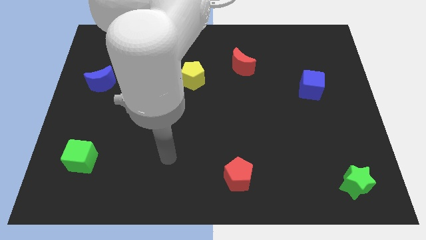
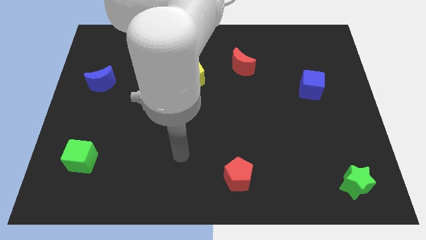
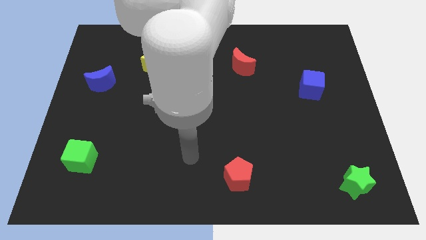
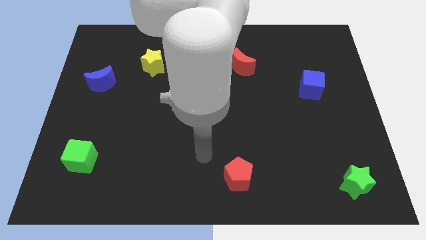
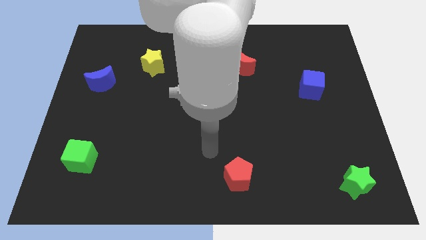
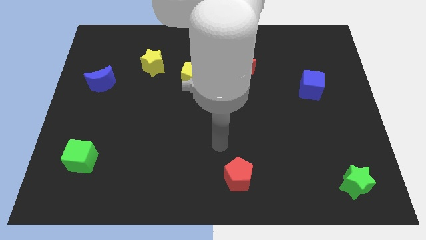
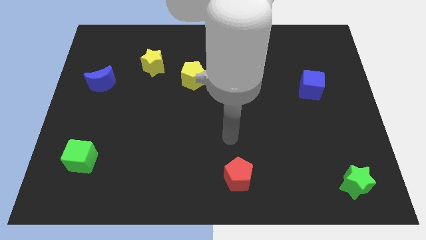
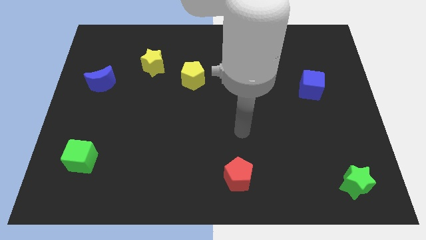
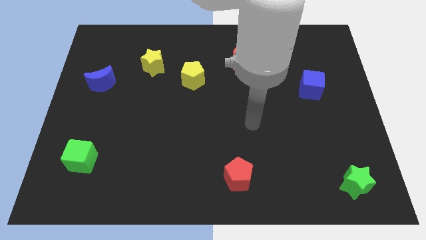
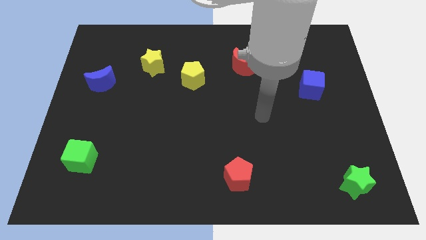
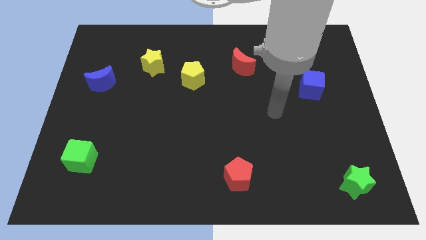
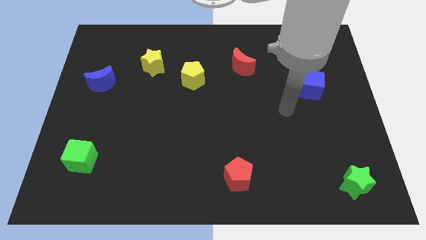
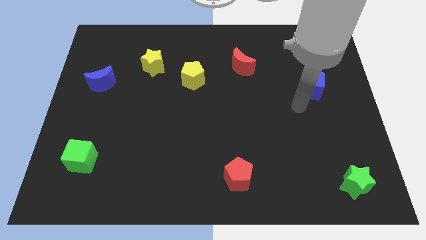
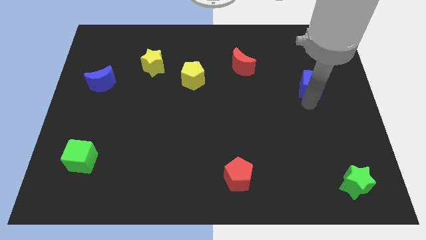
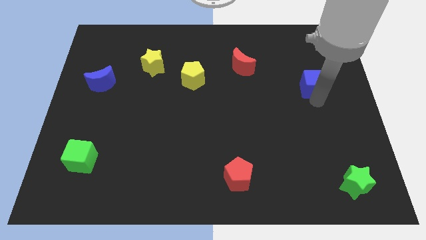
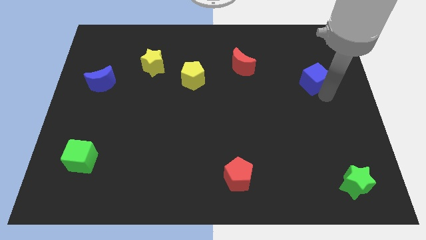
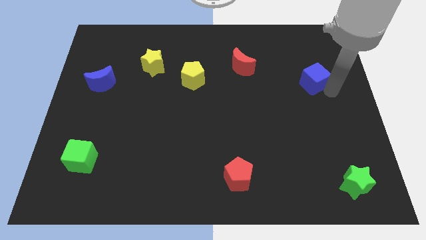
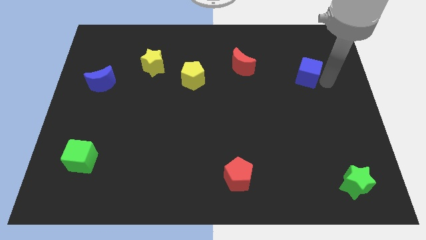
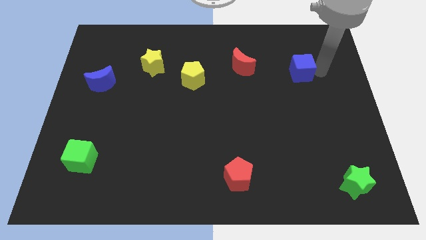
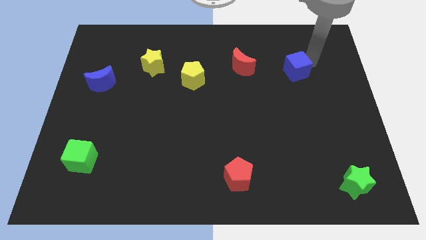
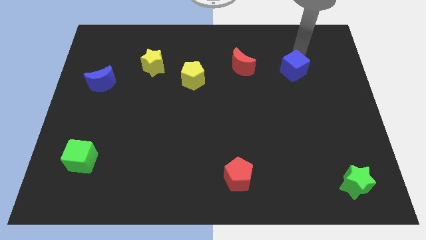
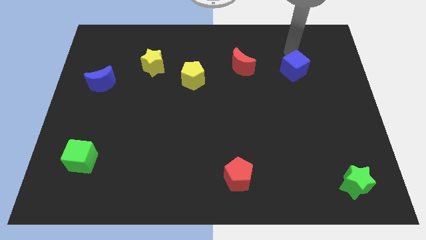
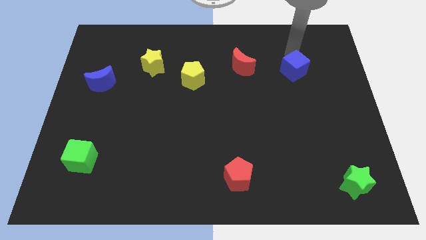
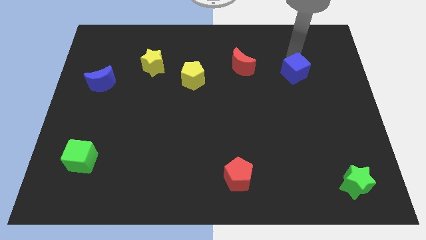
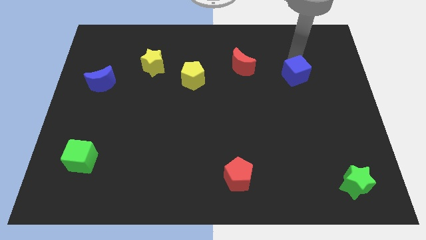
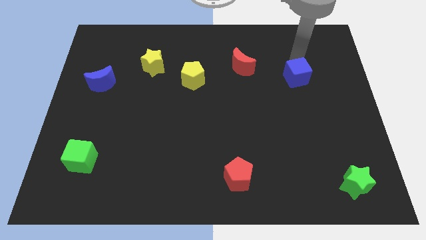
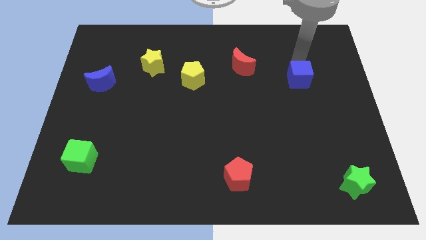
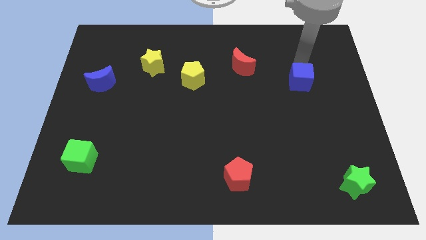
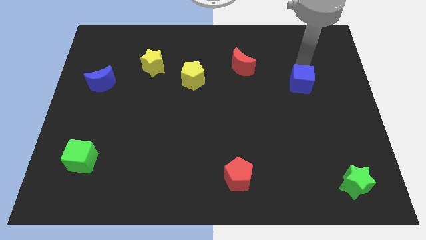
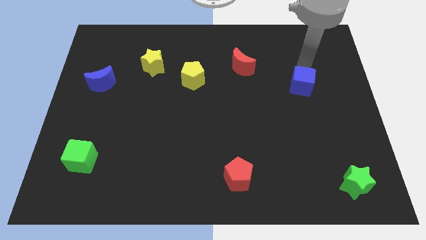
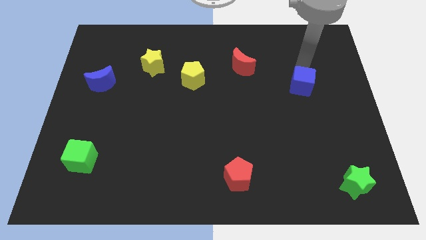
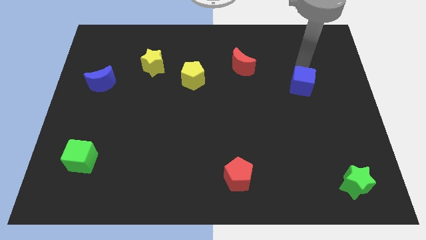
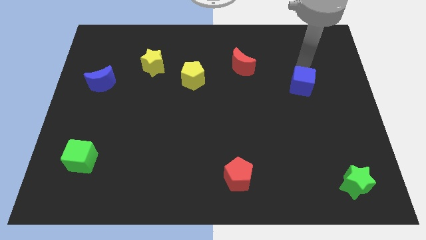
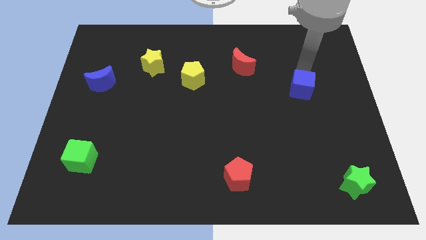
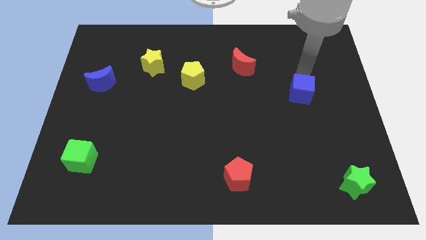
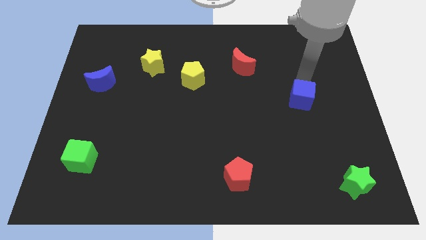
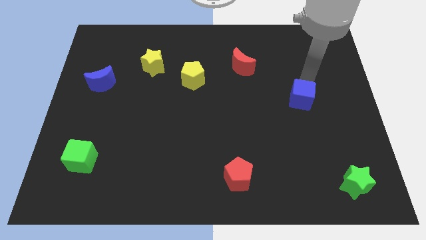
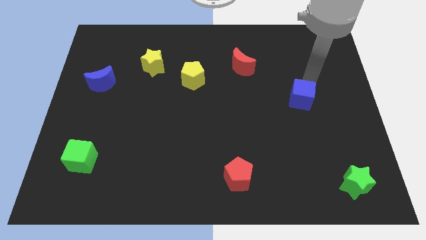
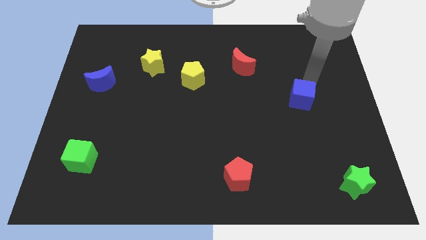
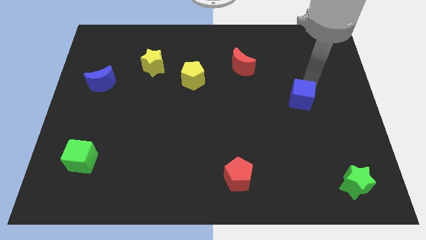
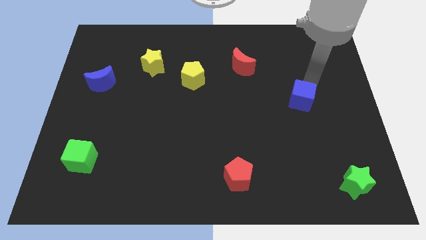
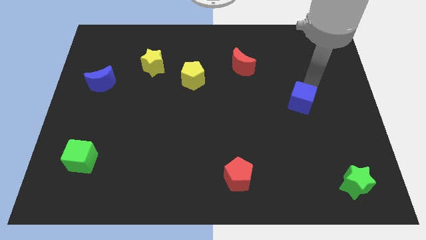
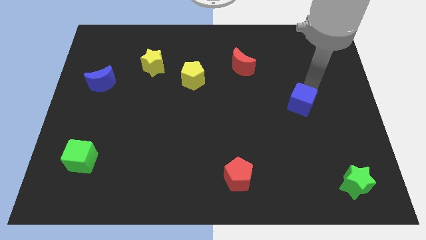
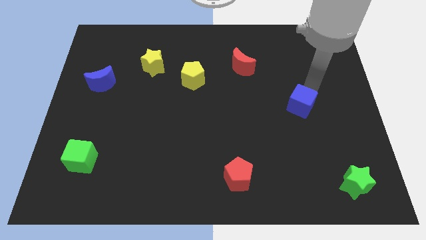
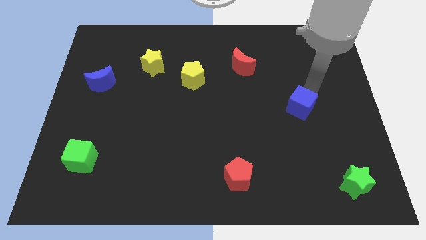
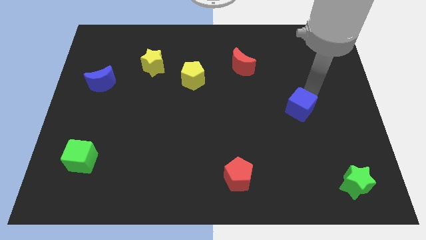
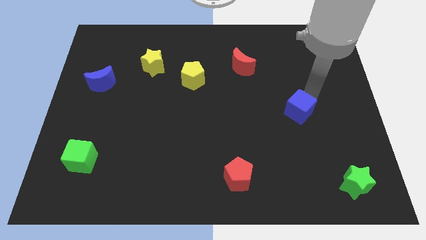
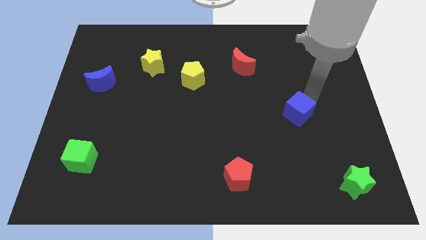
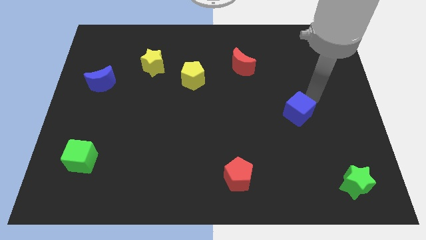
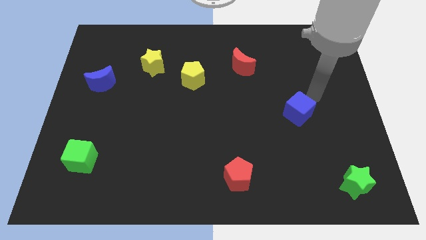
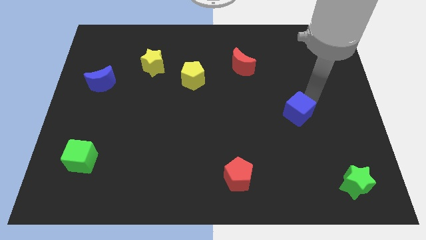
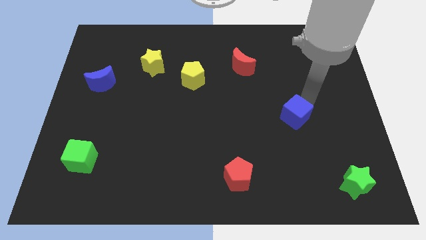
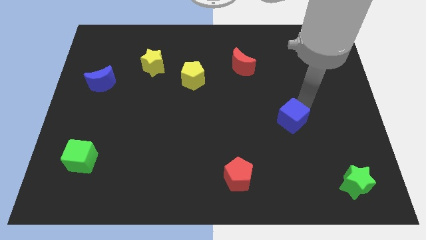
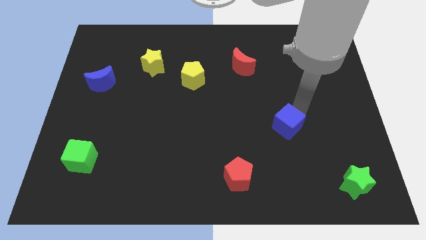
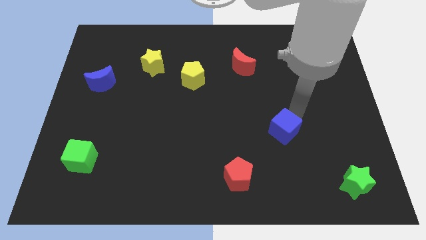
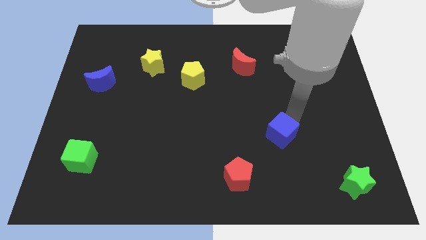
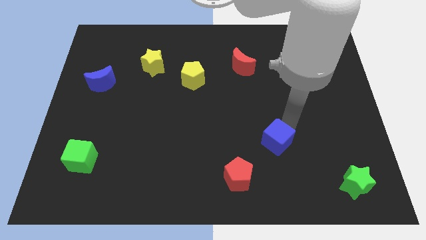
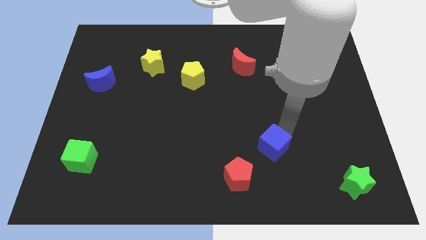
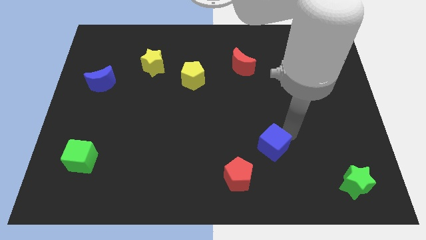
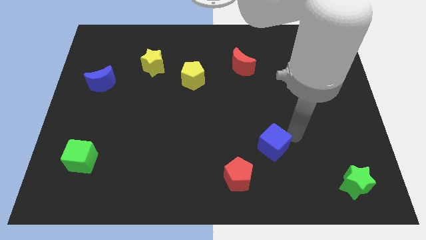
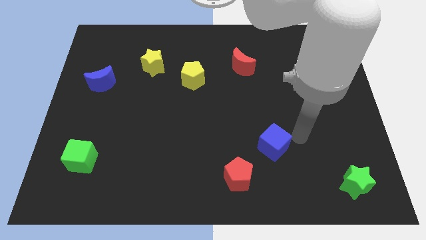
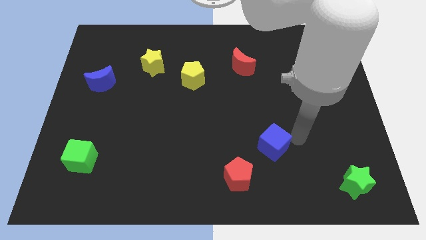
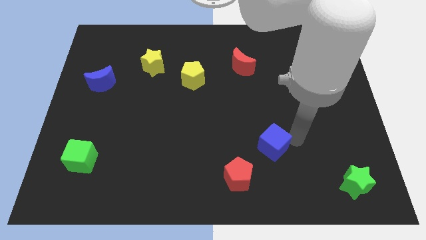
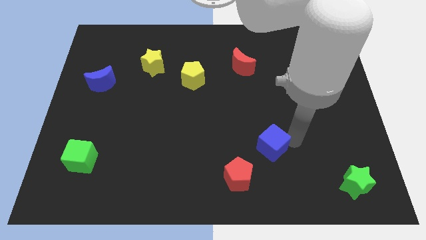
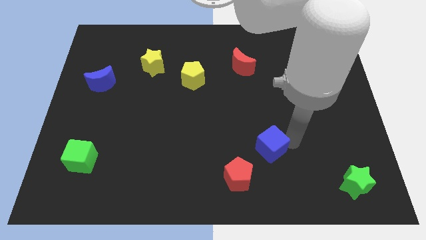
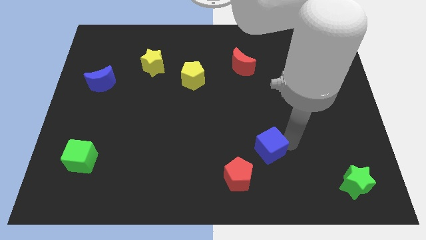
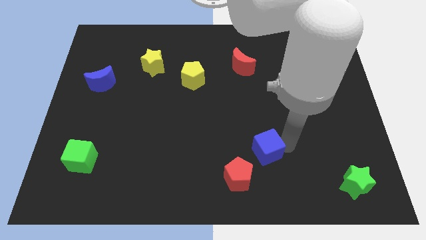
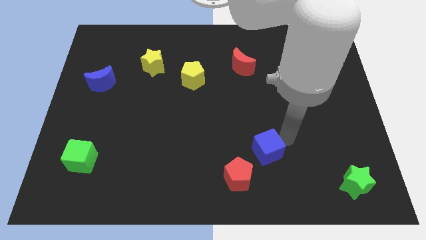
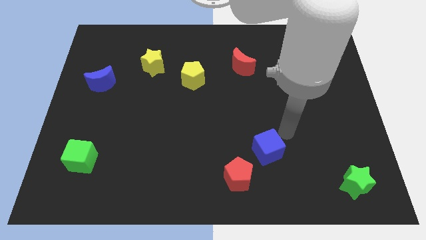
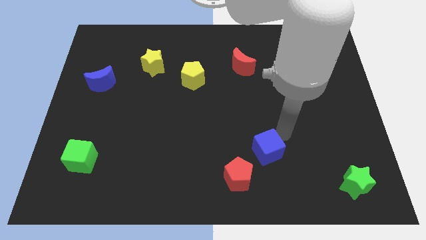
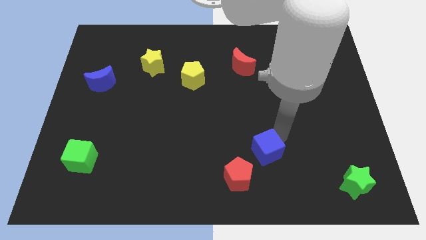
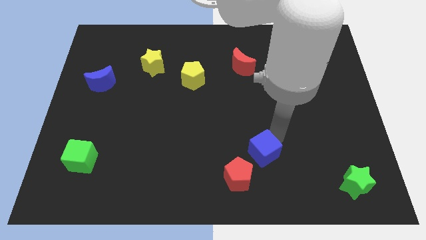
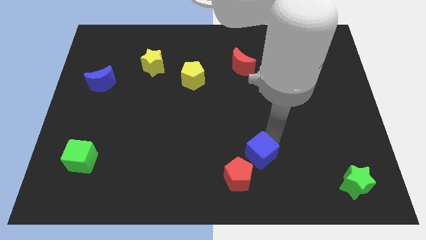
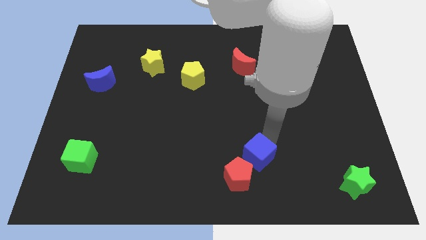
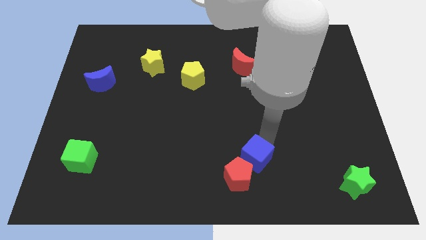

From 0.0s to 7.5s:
put the blue cube next to the red pentagon
